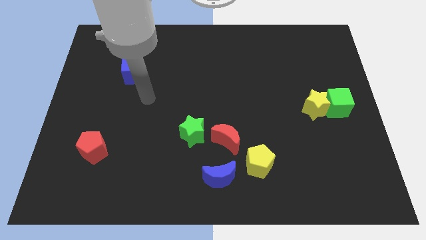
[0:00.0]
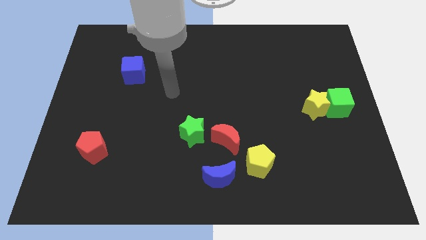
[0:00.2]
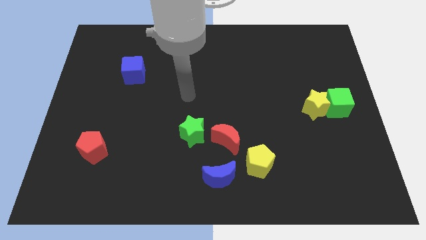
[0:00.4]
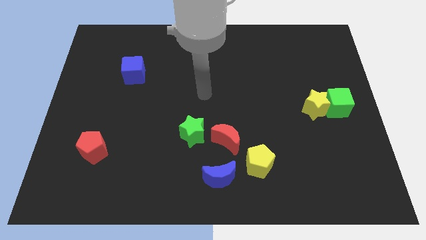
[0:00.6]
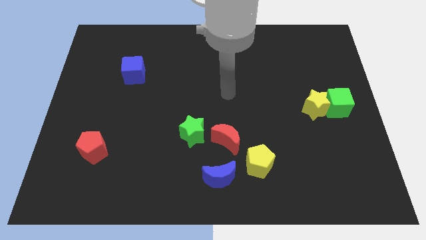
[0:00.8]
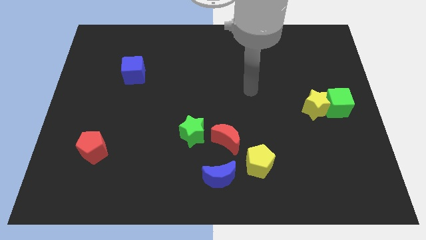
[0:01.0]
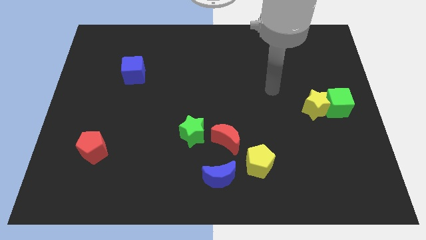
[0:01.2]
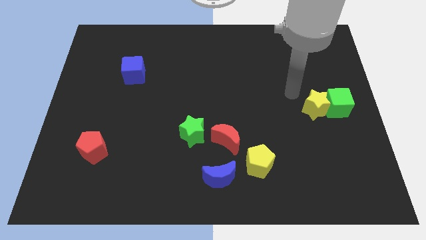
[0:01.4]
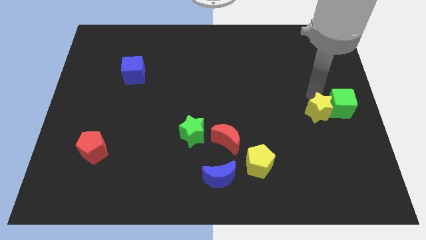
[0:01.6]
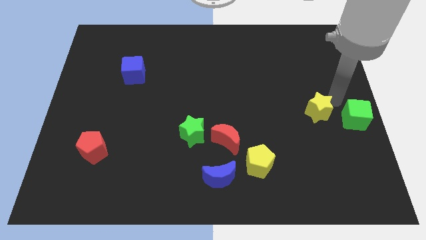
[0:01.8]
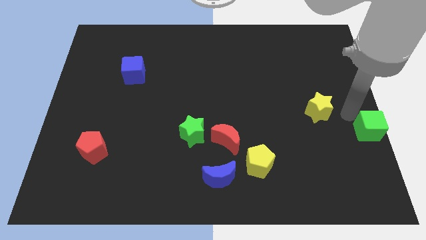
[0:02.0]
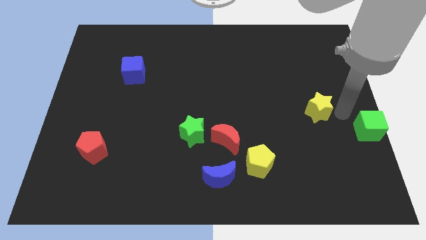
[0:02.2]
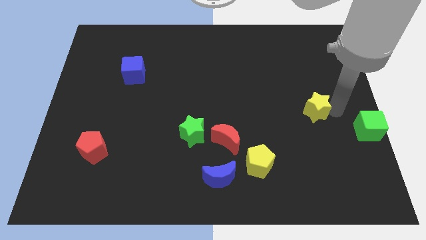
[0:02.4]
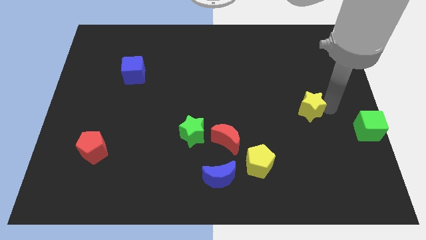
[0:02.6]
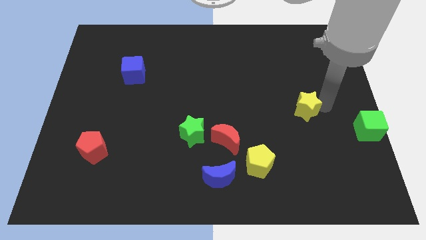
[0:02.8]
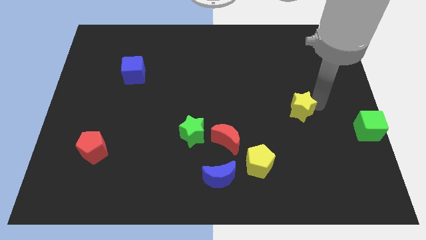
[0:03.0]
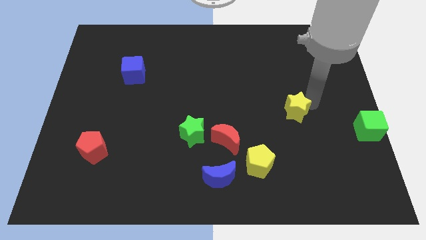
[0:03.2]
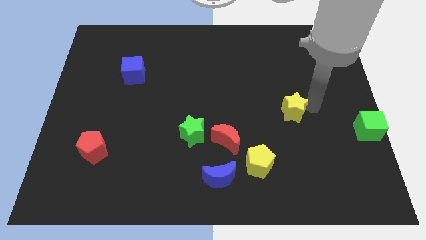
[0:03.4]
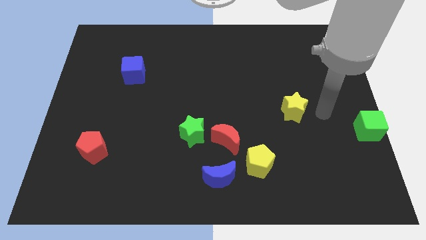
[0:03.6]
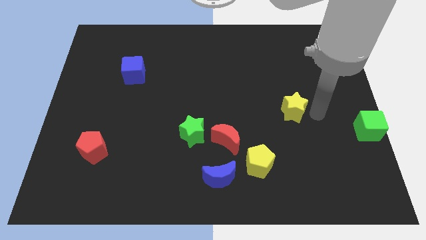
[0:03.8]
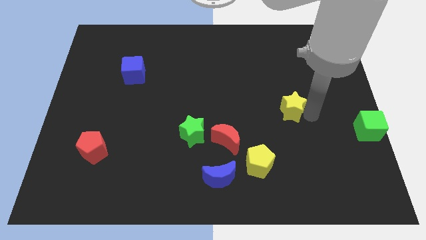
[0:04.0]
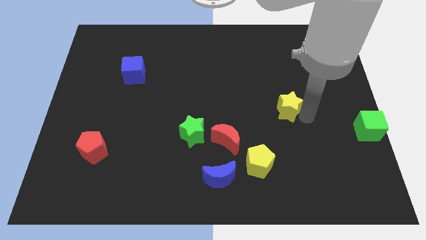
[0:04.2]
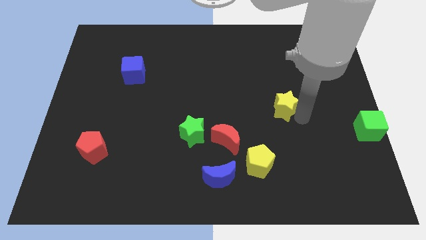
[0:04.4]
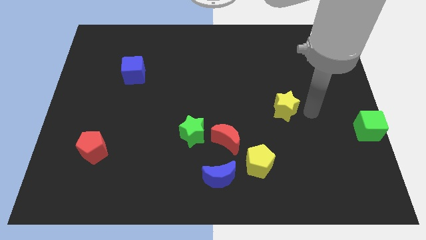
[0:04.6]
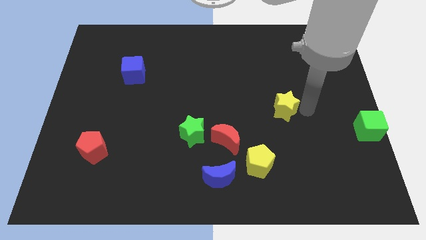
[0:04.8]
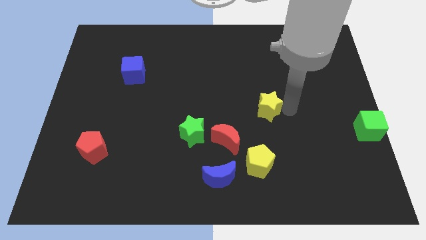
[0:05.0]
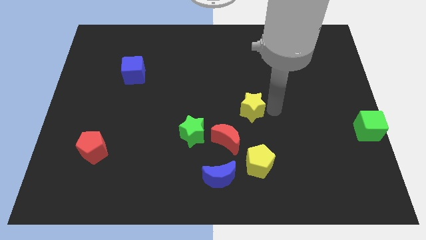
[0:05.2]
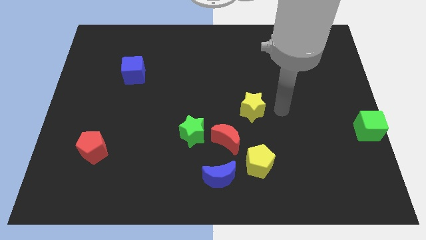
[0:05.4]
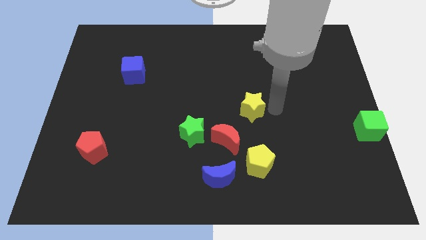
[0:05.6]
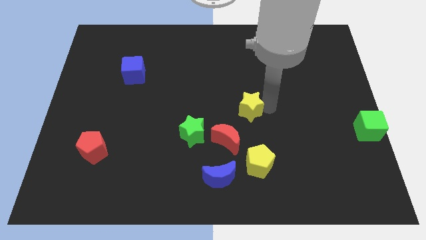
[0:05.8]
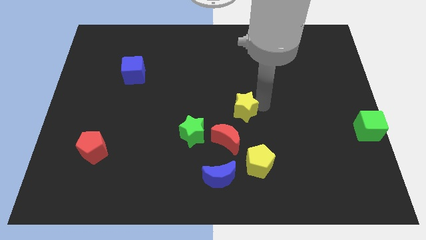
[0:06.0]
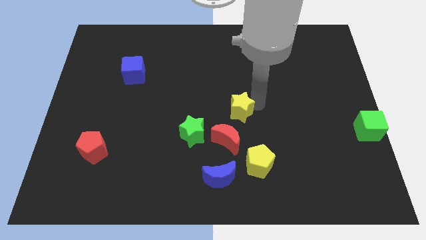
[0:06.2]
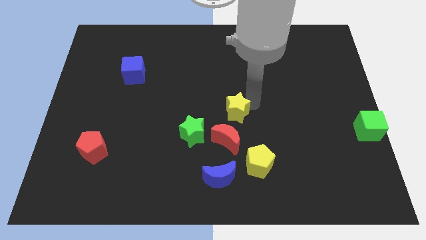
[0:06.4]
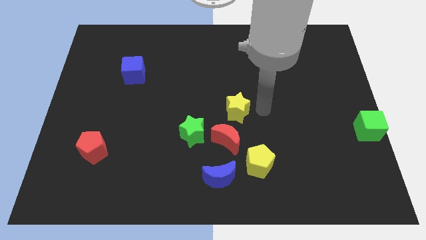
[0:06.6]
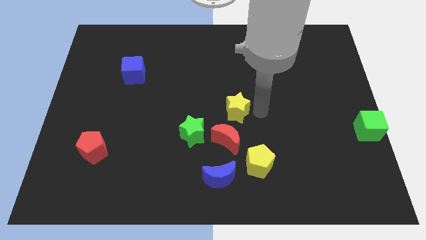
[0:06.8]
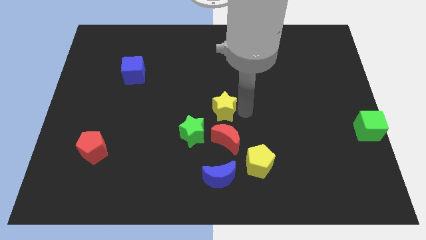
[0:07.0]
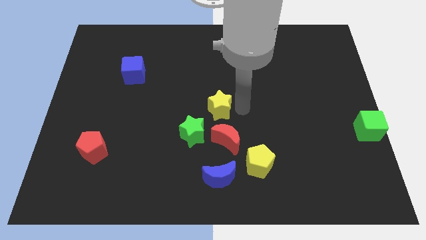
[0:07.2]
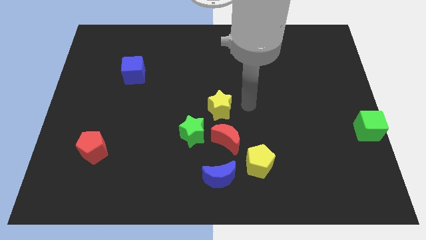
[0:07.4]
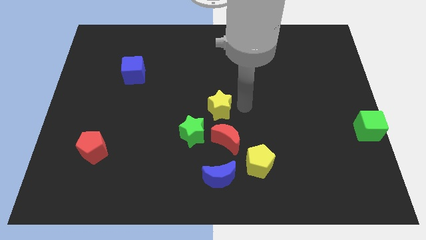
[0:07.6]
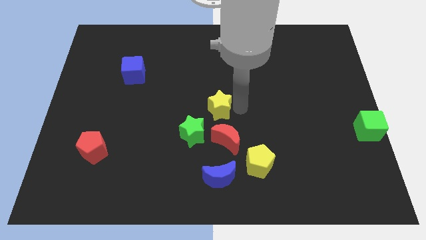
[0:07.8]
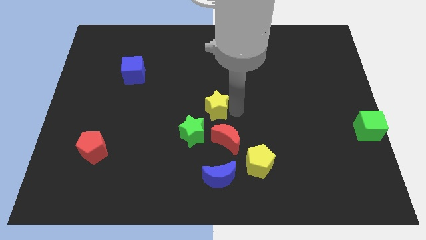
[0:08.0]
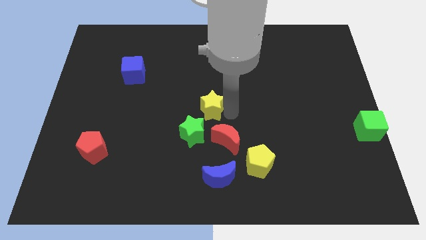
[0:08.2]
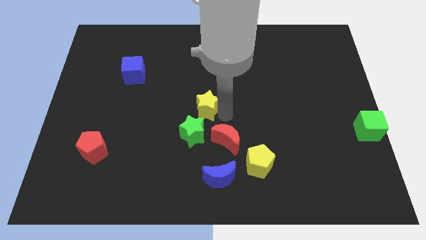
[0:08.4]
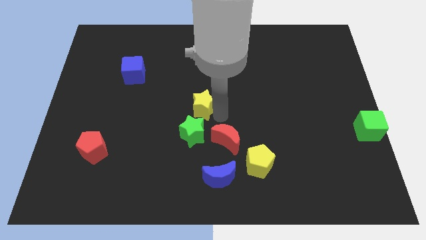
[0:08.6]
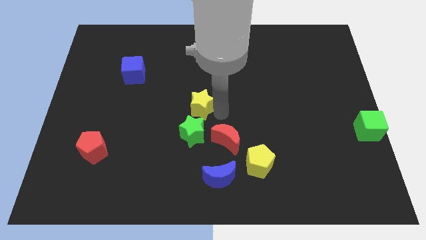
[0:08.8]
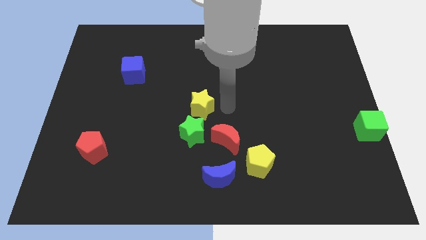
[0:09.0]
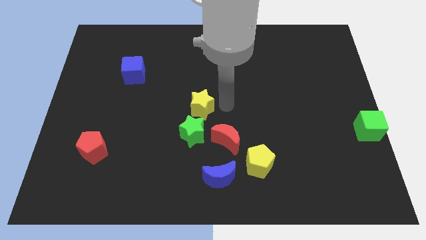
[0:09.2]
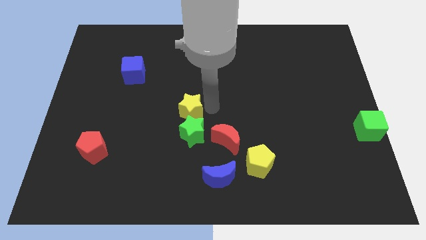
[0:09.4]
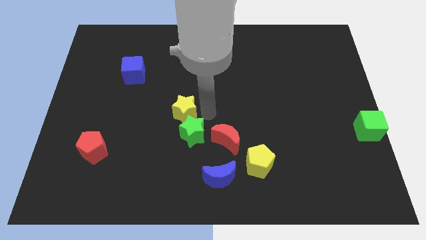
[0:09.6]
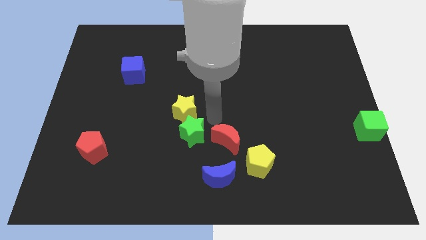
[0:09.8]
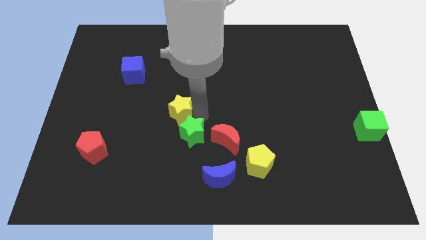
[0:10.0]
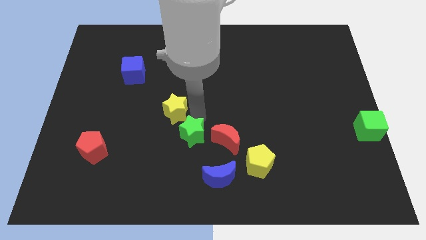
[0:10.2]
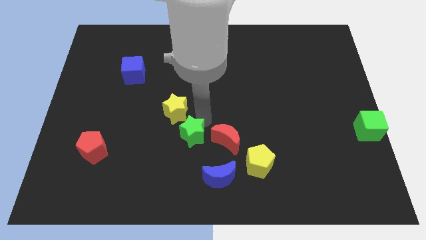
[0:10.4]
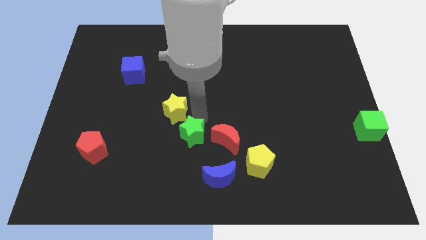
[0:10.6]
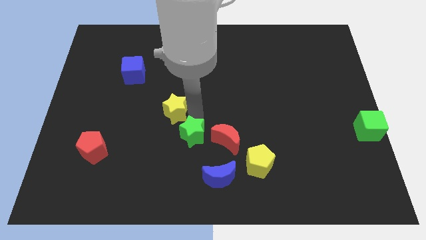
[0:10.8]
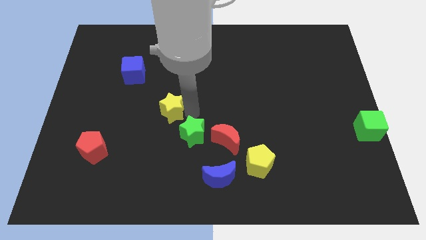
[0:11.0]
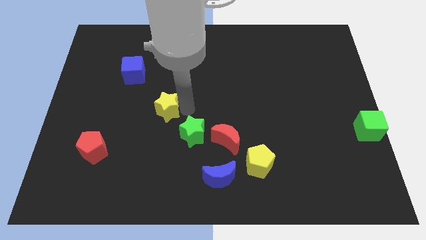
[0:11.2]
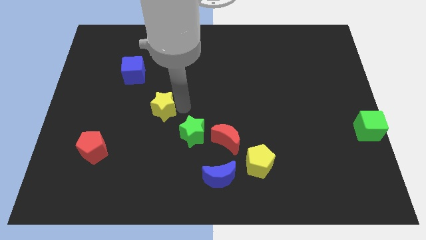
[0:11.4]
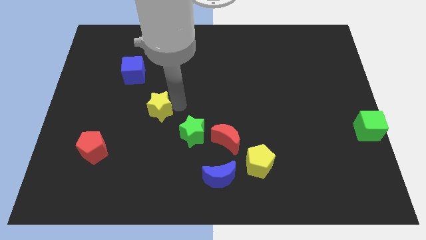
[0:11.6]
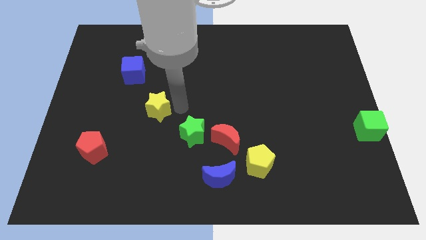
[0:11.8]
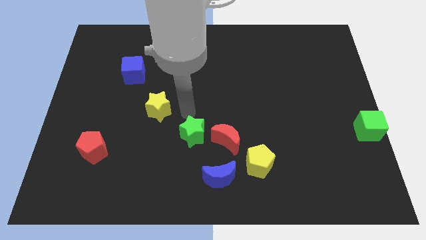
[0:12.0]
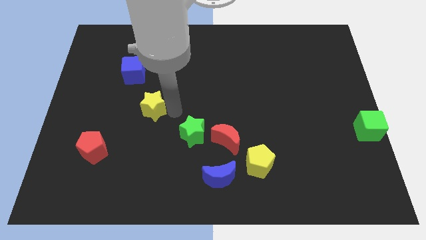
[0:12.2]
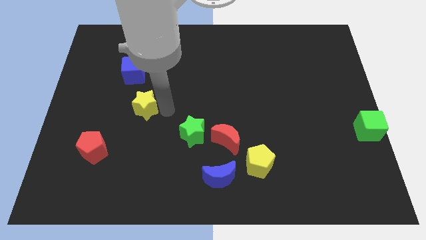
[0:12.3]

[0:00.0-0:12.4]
put the yellow star to the bottom side of the blue cube

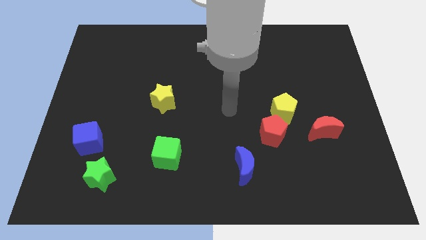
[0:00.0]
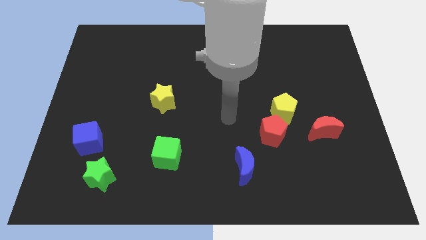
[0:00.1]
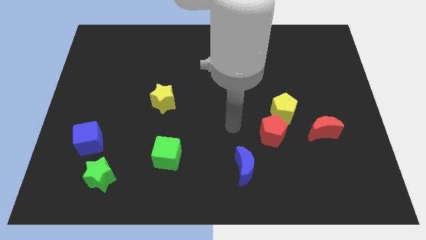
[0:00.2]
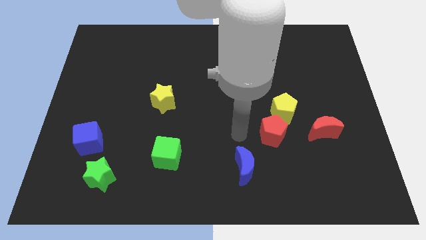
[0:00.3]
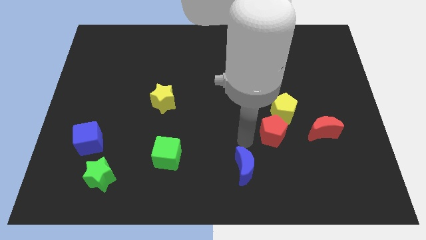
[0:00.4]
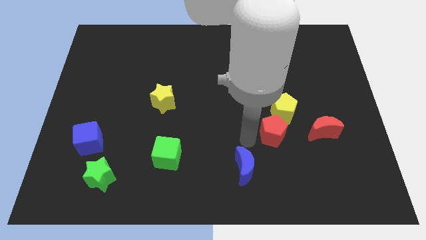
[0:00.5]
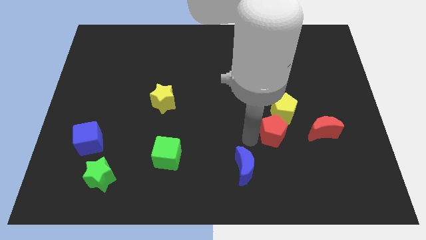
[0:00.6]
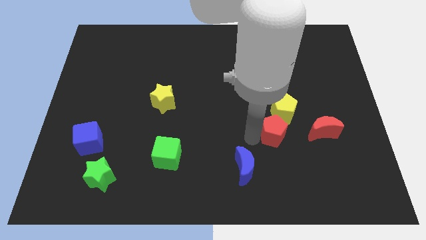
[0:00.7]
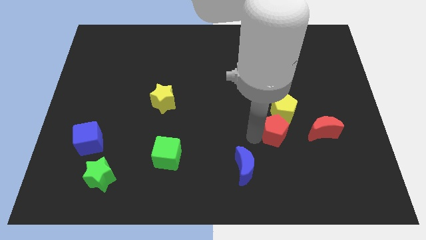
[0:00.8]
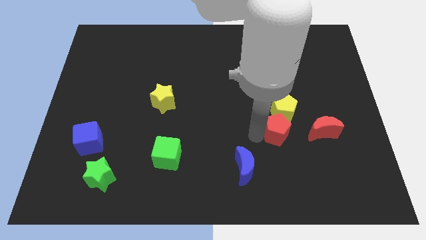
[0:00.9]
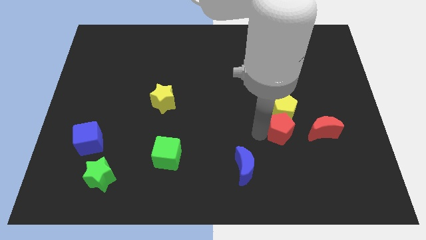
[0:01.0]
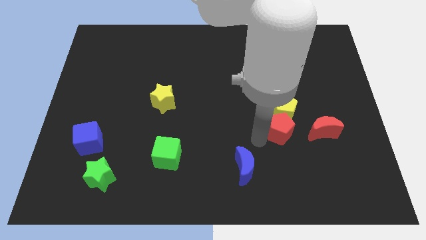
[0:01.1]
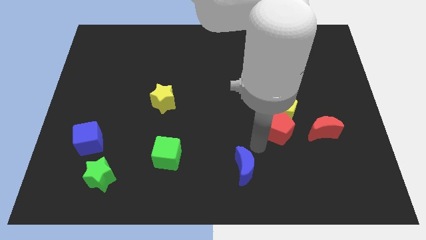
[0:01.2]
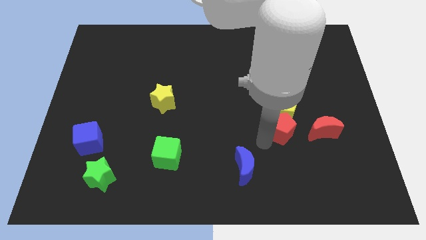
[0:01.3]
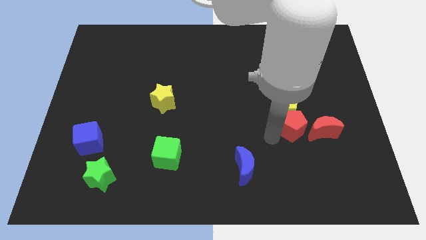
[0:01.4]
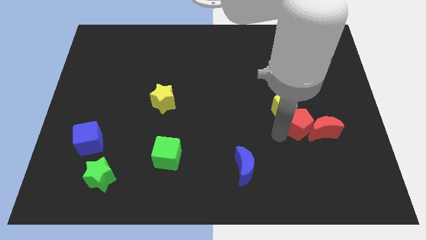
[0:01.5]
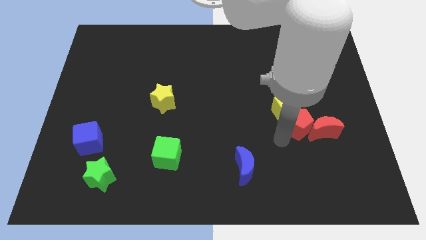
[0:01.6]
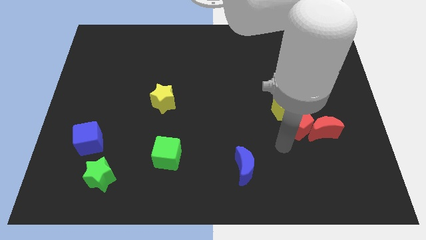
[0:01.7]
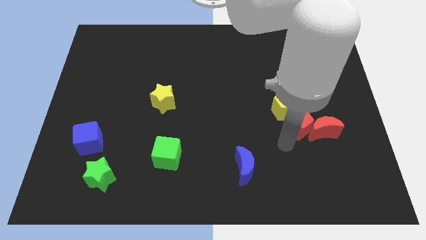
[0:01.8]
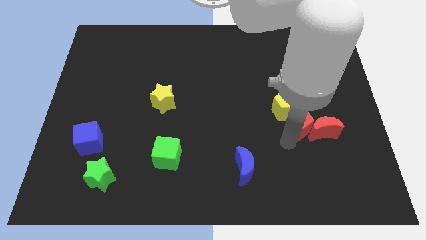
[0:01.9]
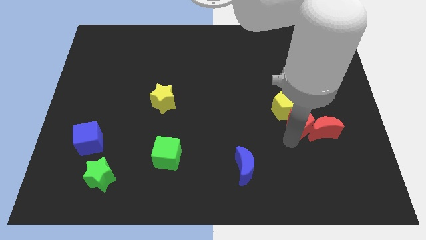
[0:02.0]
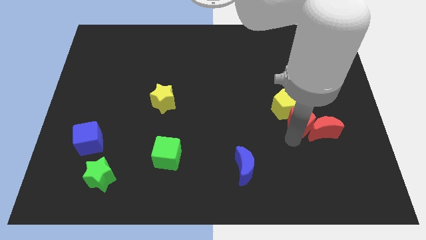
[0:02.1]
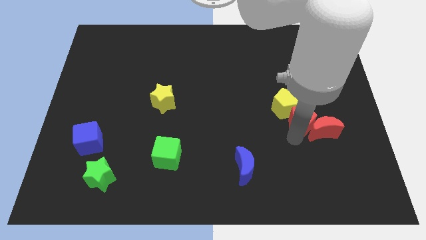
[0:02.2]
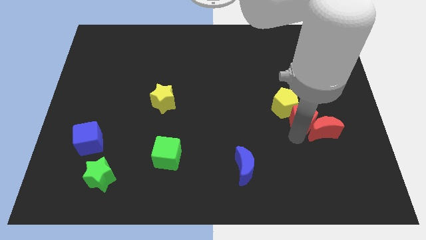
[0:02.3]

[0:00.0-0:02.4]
push the red pentagon to the top side of the red moon
